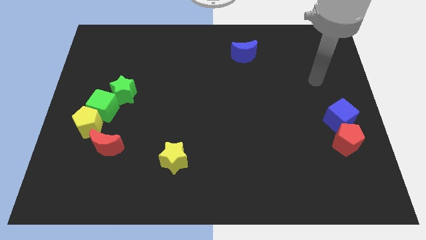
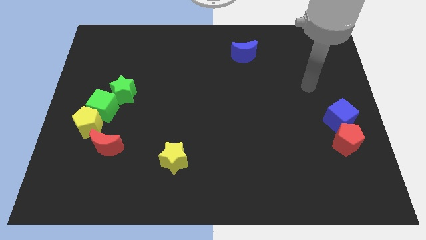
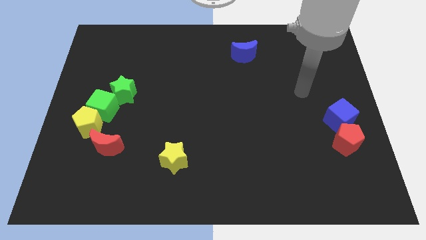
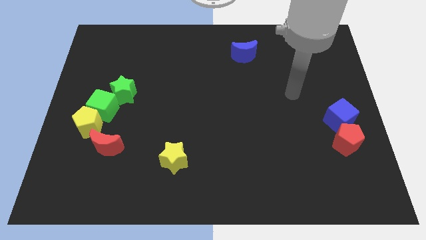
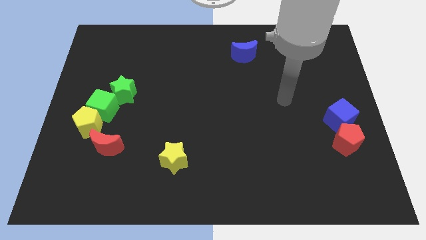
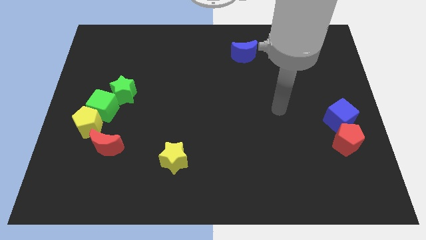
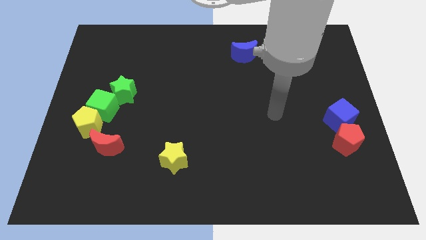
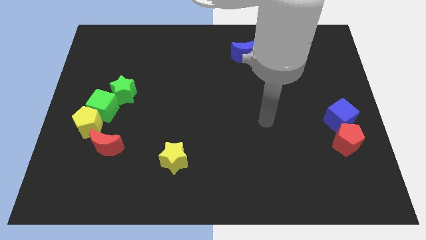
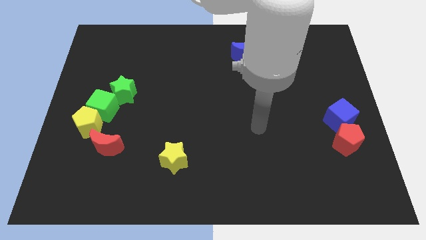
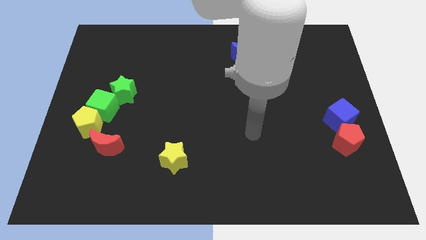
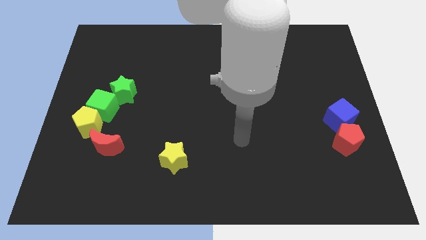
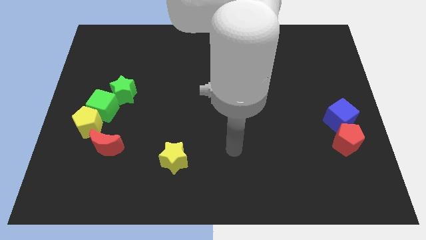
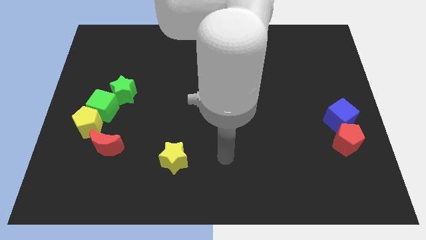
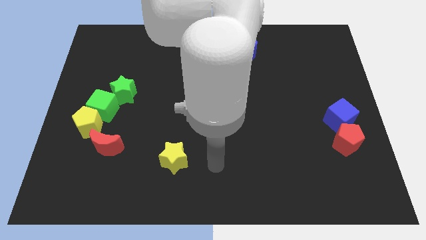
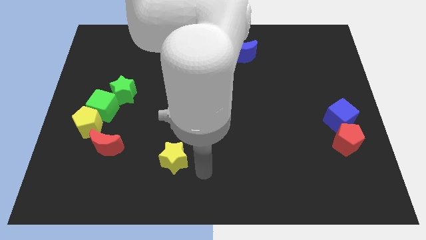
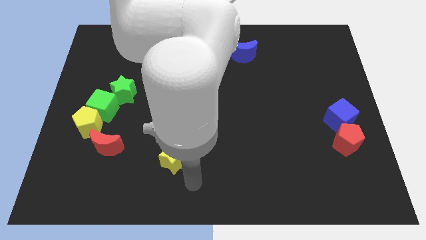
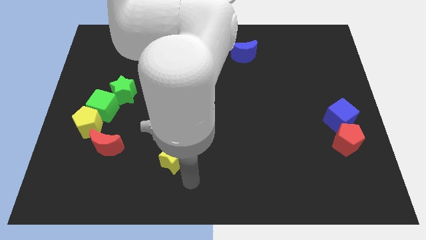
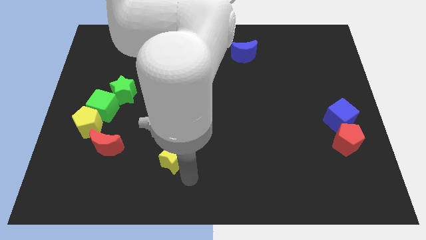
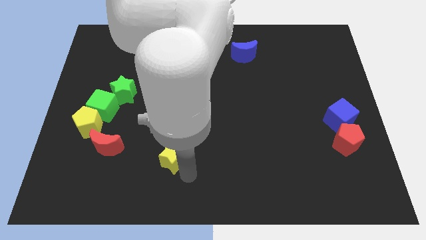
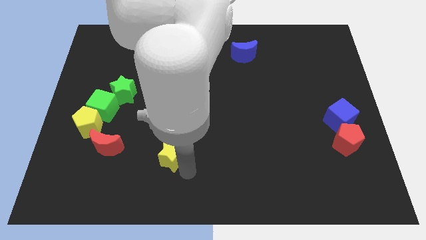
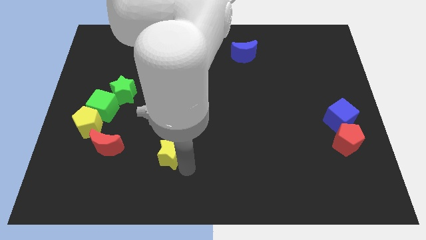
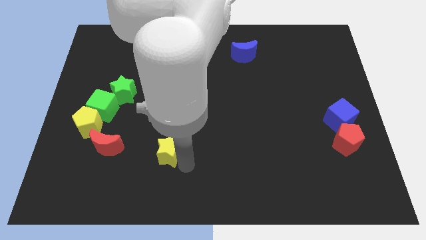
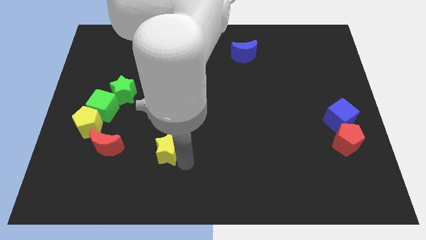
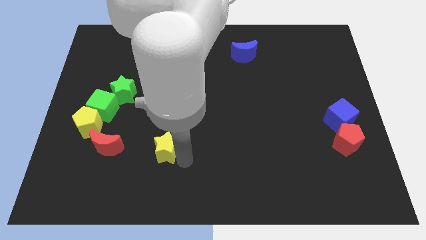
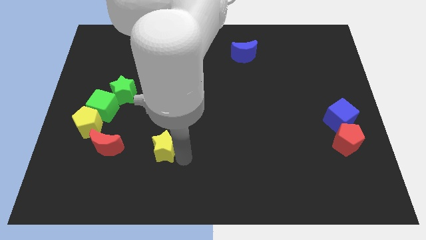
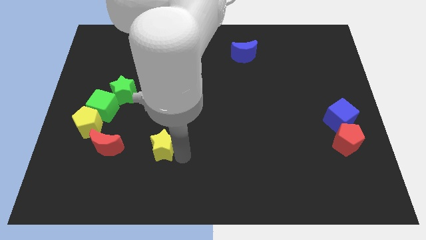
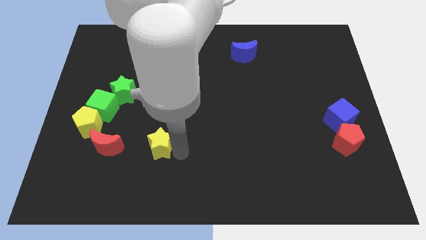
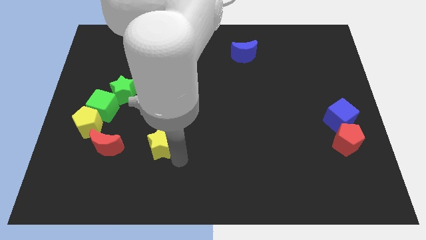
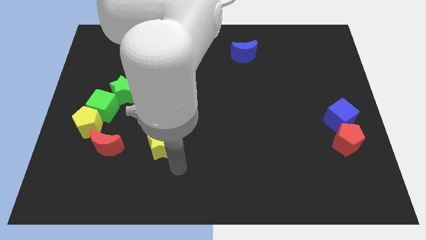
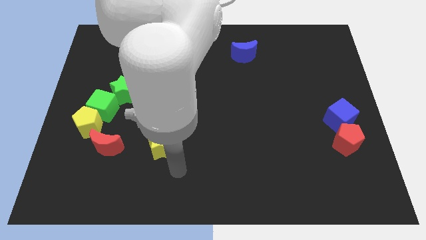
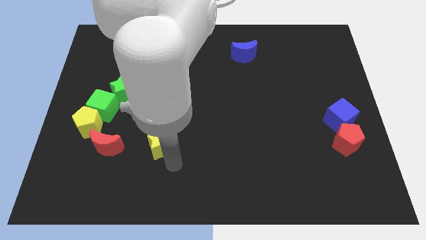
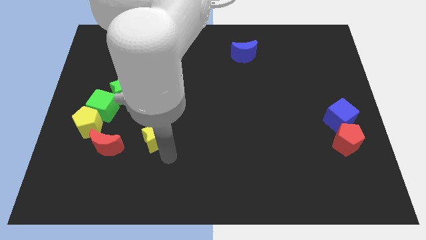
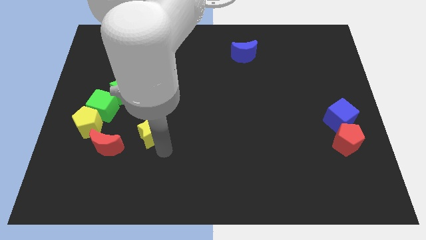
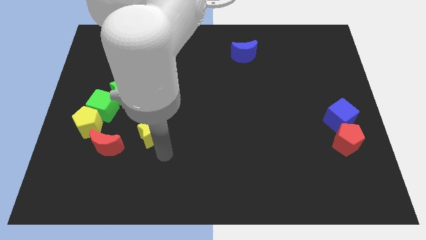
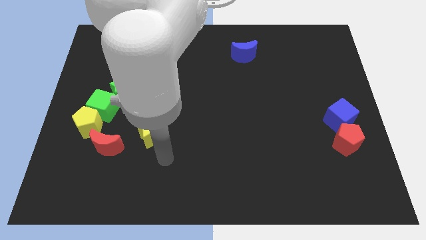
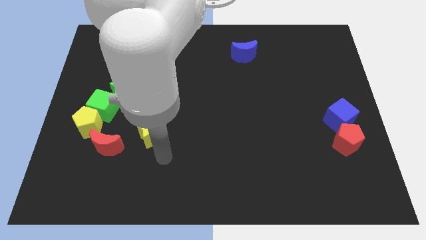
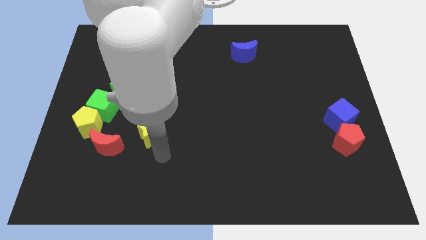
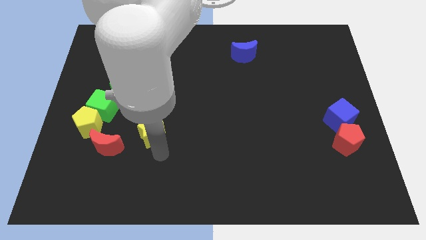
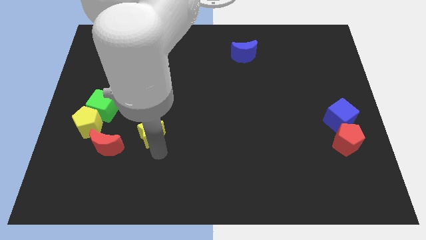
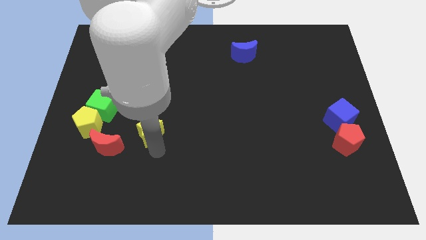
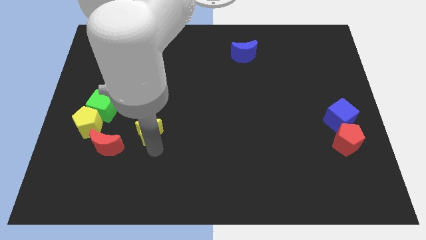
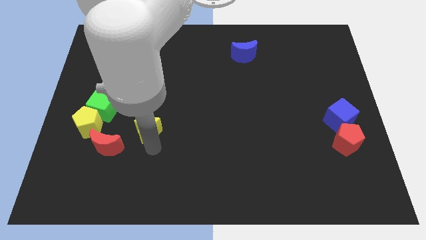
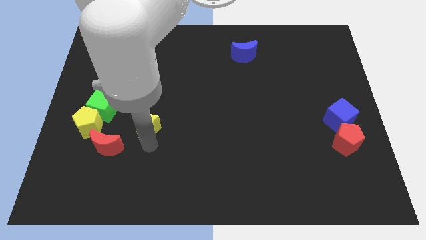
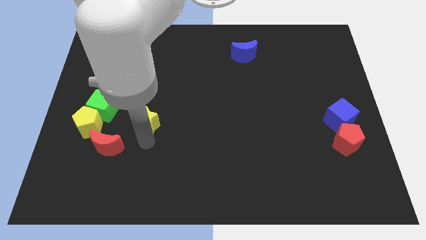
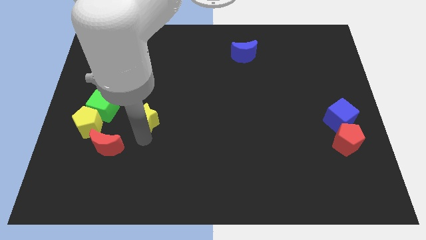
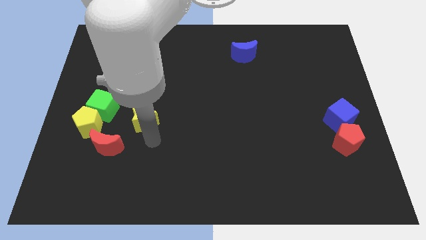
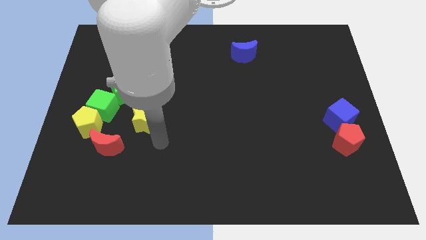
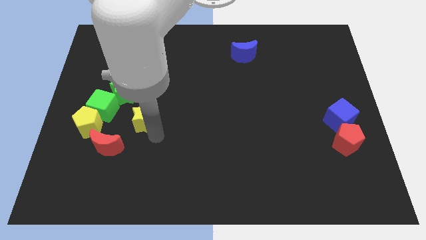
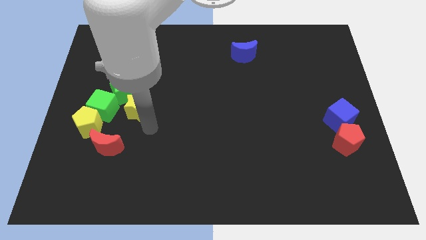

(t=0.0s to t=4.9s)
slide the yellow star close to the green star

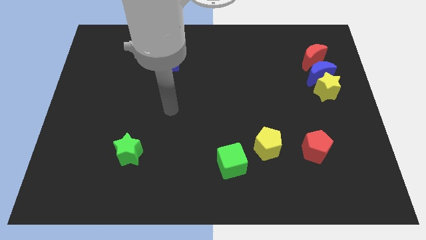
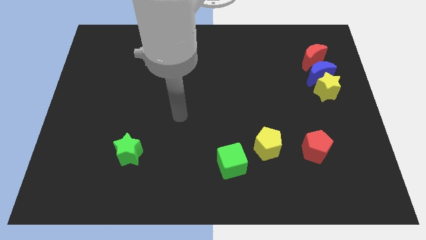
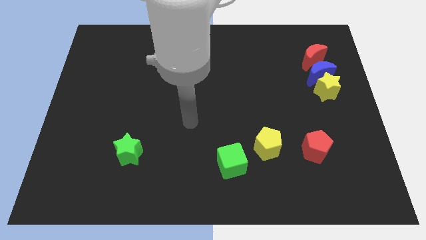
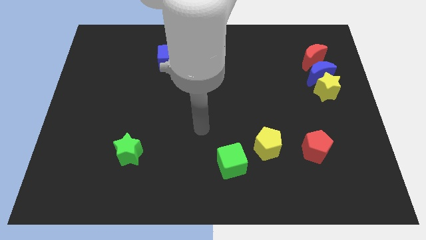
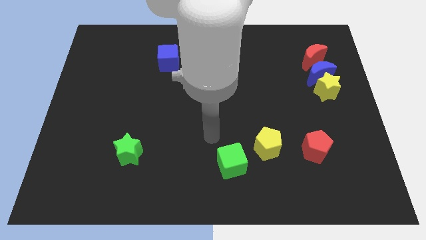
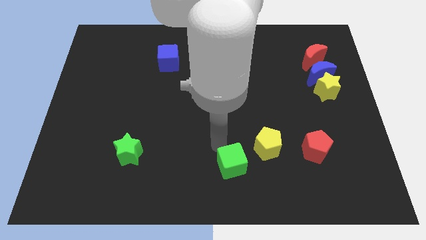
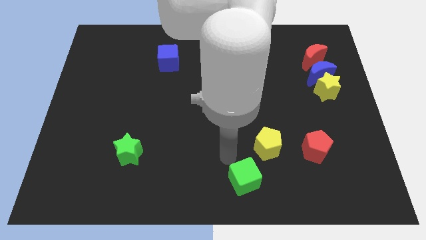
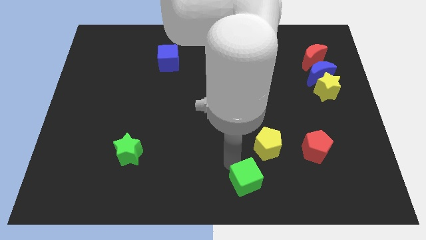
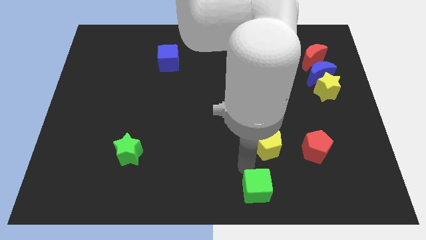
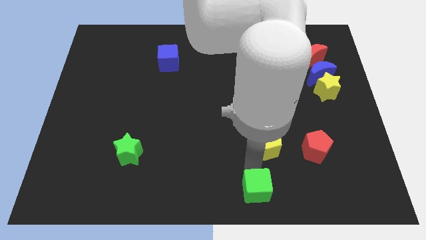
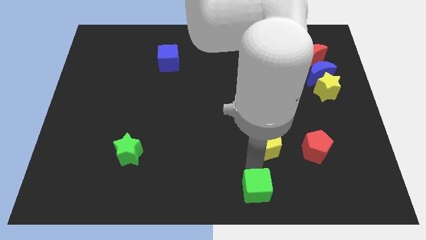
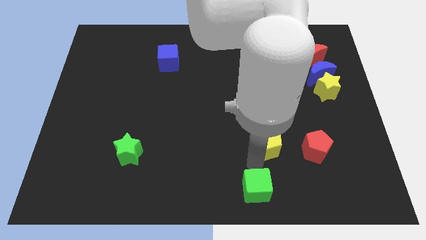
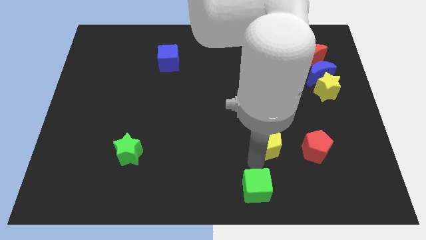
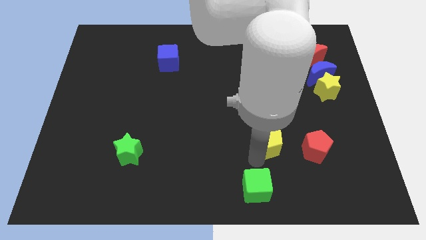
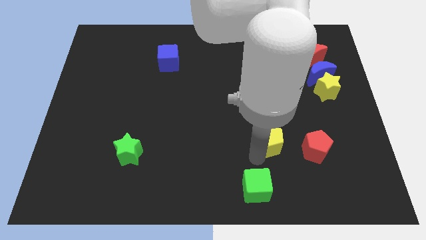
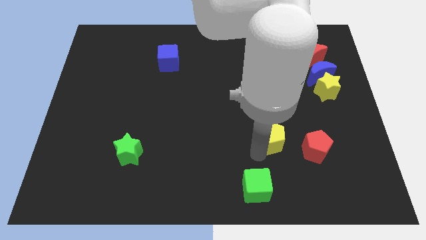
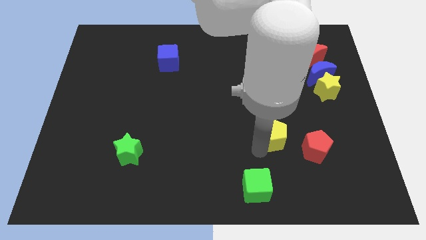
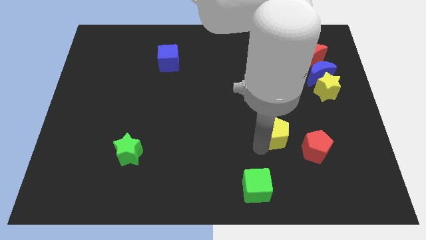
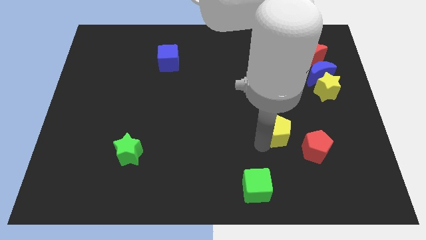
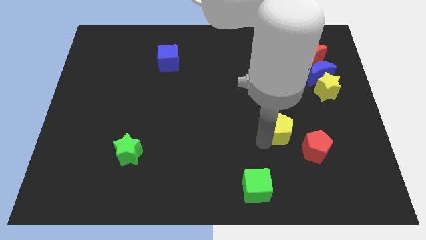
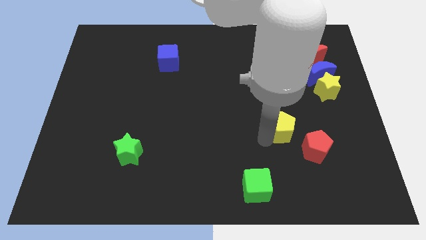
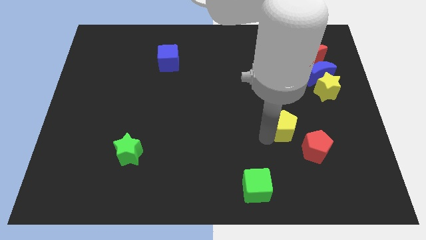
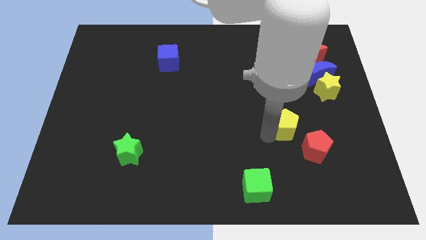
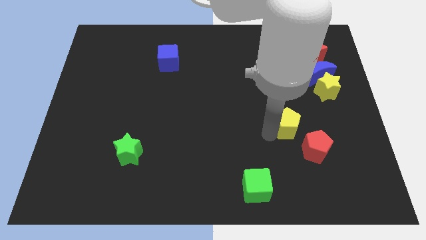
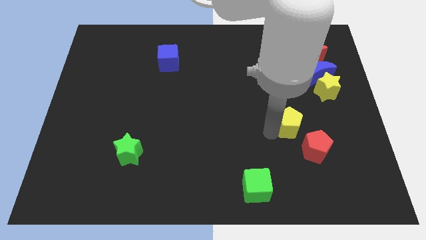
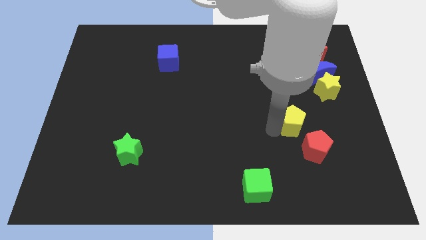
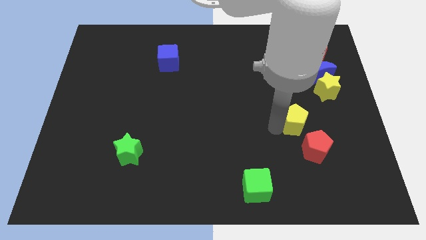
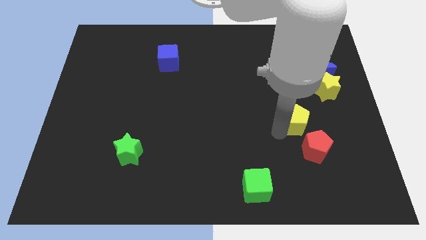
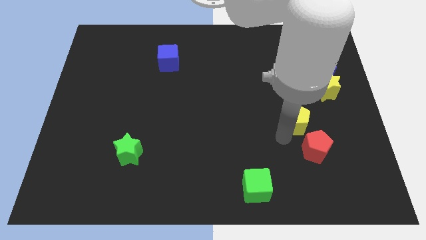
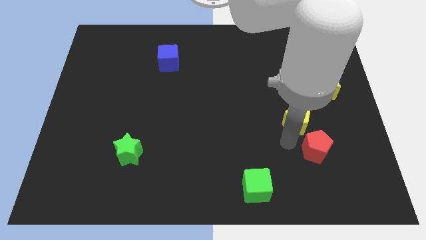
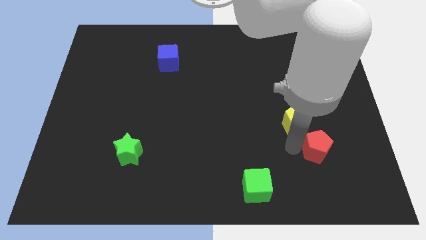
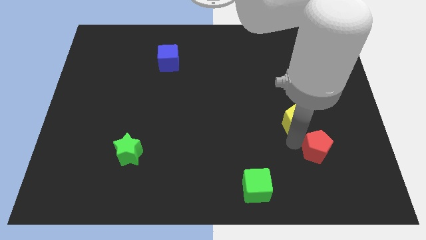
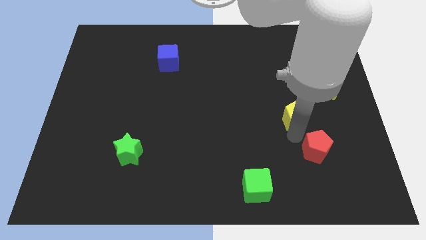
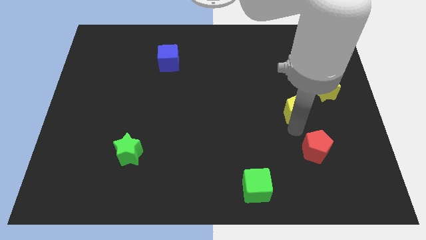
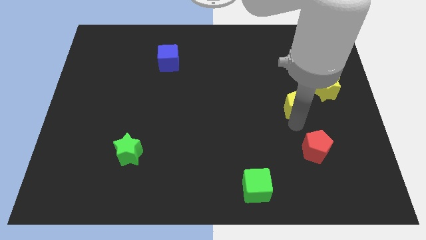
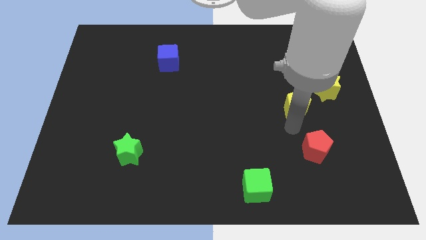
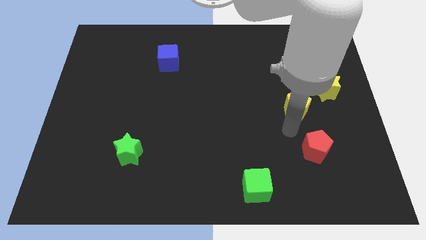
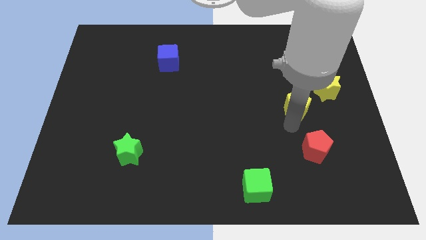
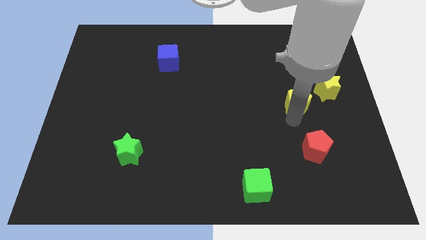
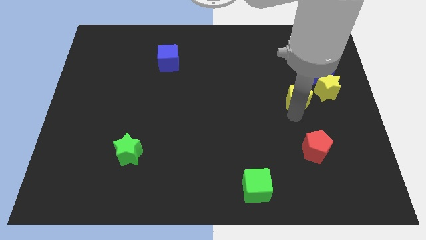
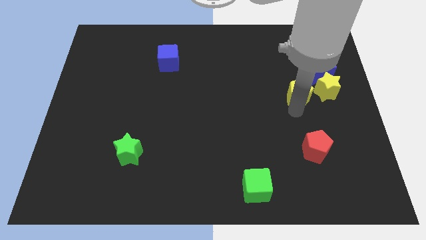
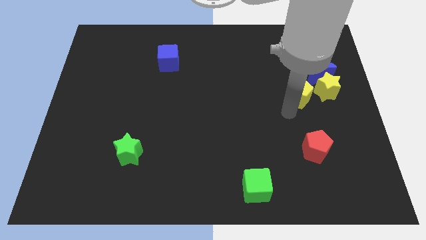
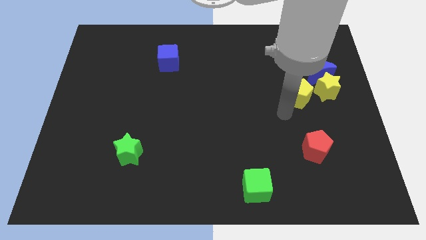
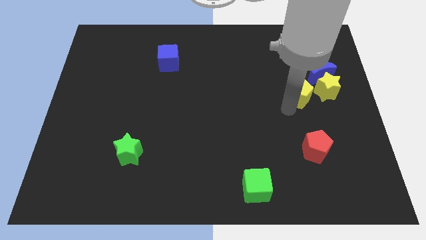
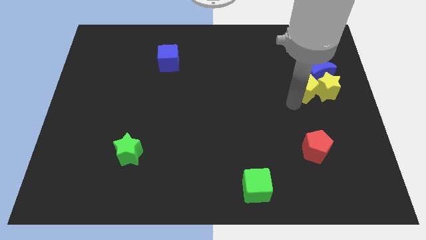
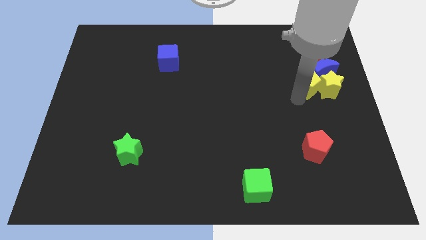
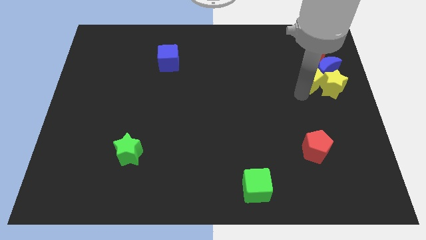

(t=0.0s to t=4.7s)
push the yellow pentagon to the blue moon
